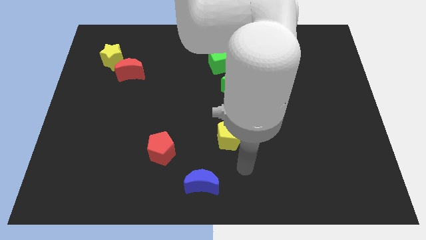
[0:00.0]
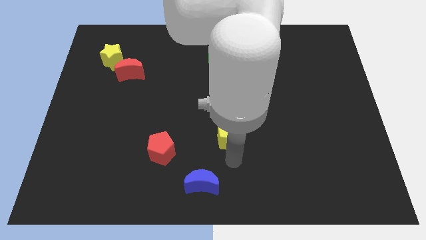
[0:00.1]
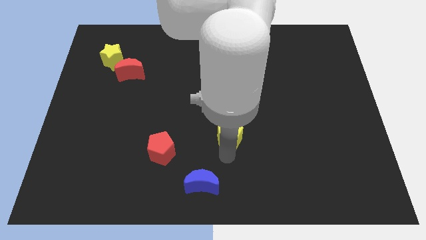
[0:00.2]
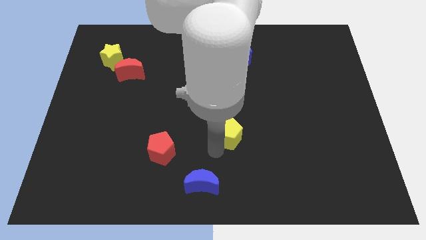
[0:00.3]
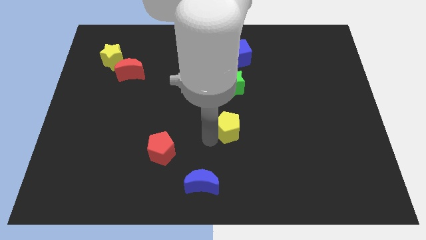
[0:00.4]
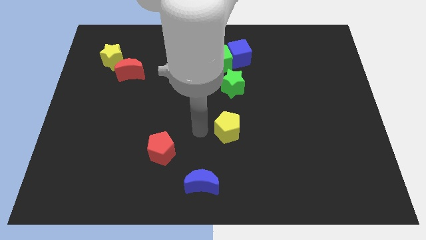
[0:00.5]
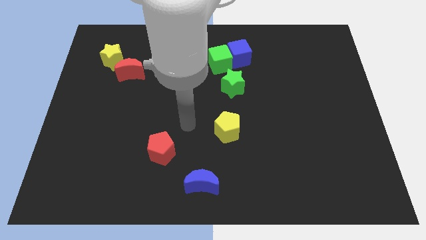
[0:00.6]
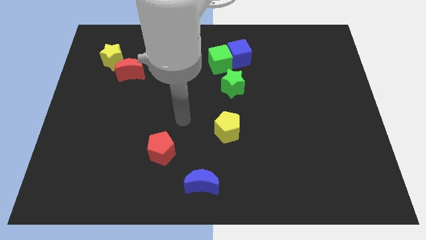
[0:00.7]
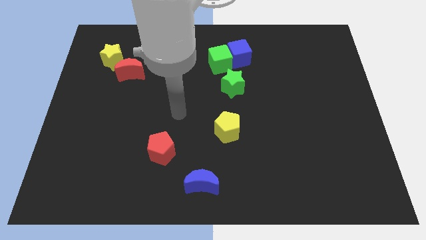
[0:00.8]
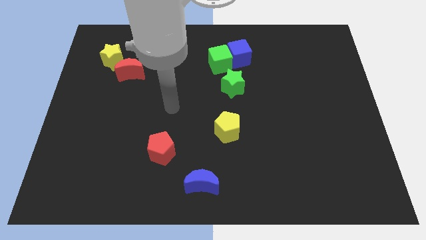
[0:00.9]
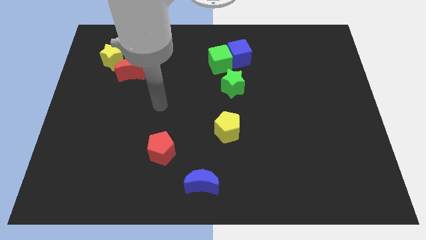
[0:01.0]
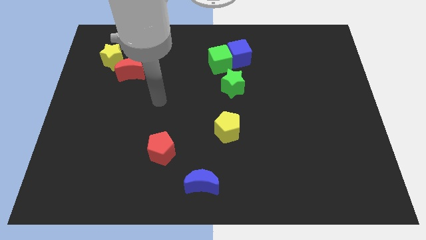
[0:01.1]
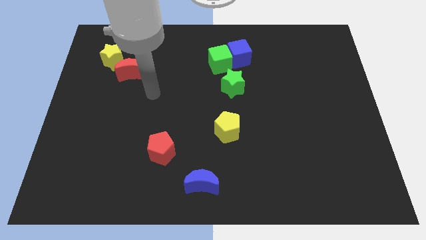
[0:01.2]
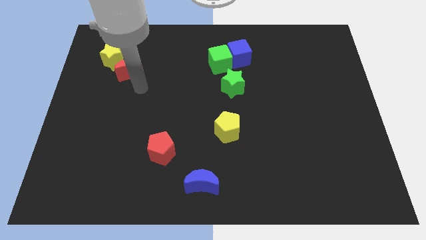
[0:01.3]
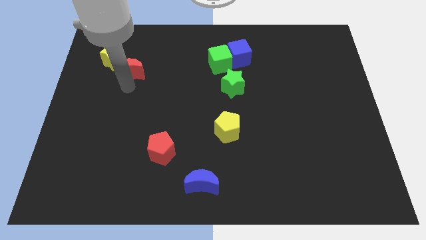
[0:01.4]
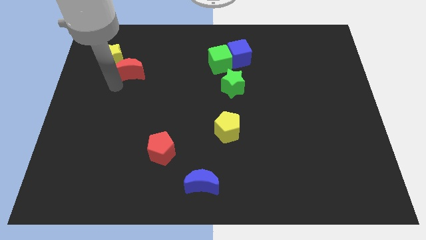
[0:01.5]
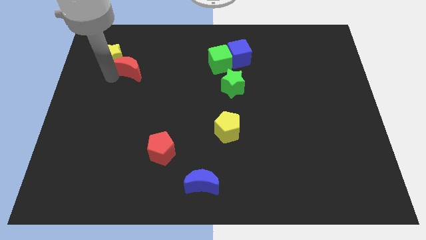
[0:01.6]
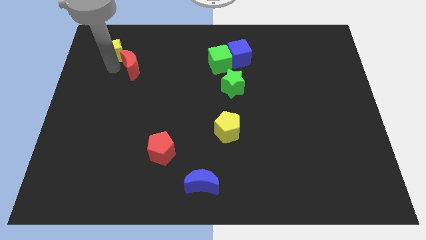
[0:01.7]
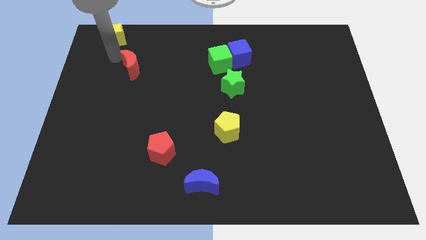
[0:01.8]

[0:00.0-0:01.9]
move the red moon away from the yellow star

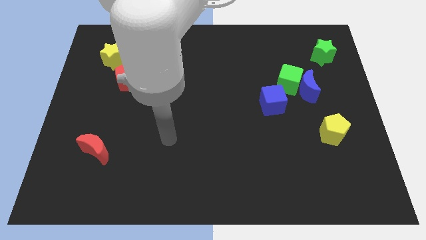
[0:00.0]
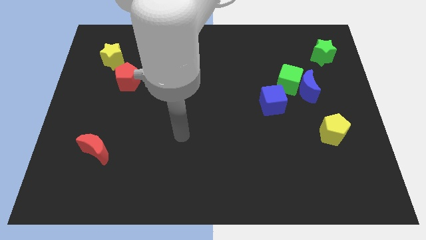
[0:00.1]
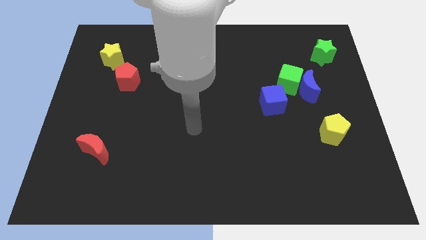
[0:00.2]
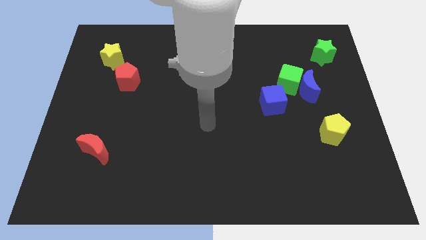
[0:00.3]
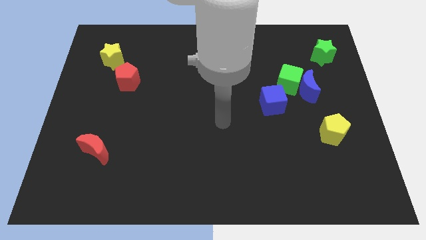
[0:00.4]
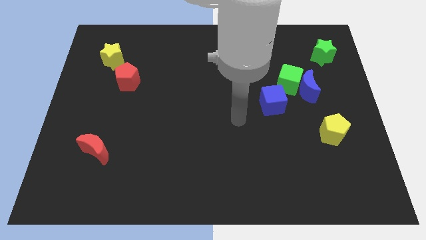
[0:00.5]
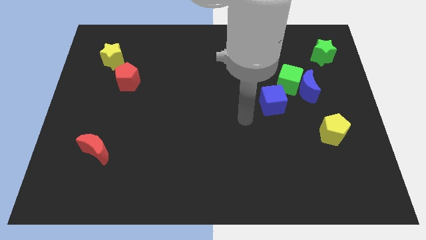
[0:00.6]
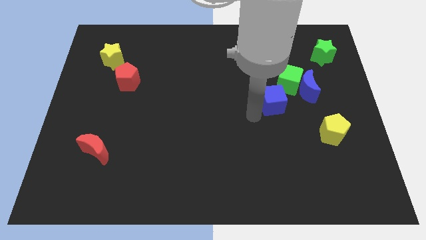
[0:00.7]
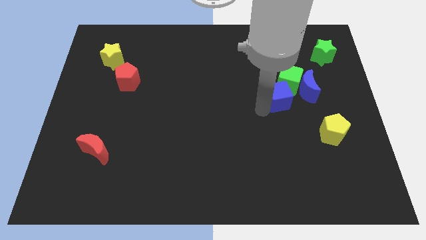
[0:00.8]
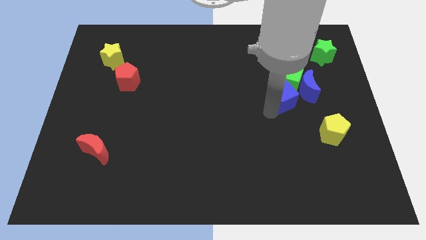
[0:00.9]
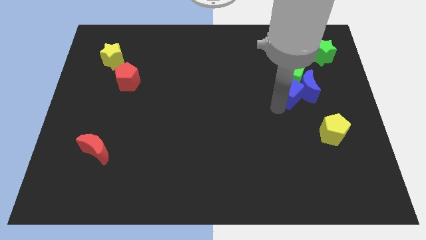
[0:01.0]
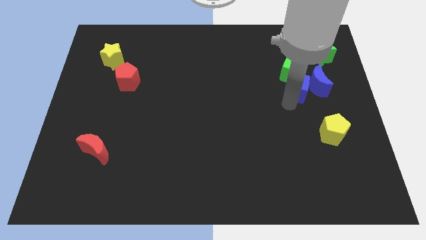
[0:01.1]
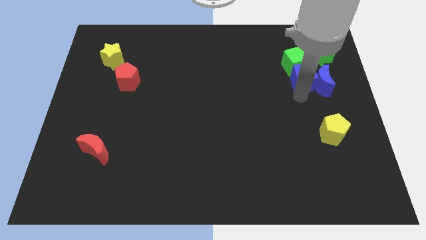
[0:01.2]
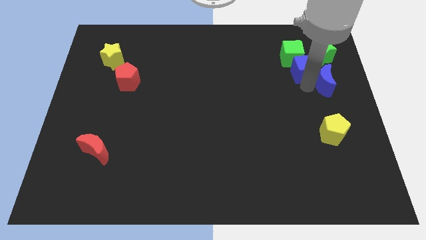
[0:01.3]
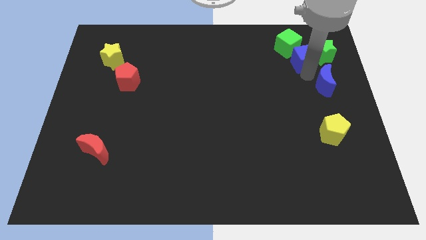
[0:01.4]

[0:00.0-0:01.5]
pull the green cube apart from the blue moon and blue cube

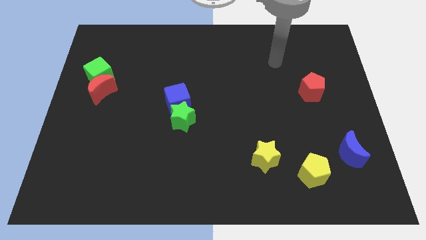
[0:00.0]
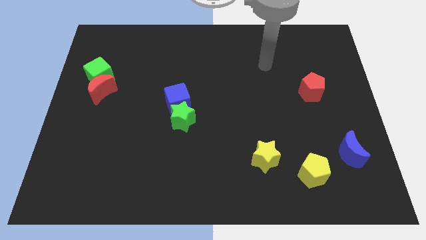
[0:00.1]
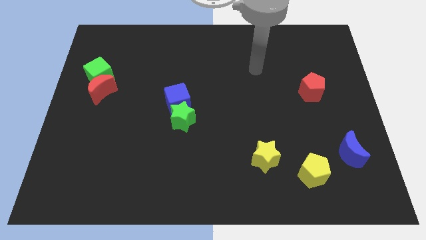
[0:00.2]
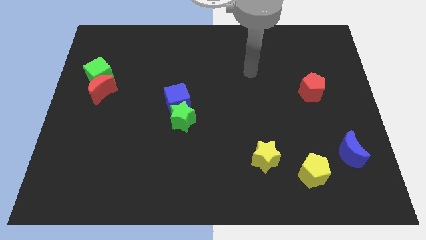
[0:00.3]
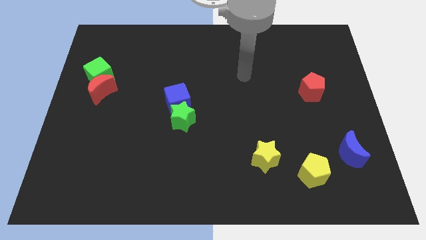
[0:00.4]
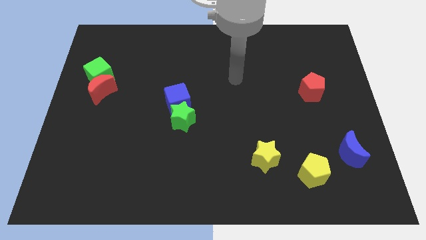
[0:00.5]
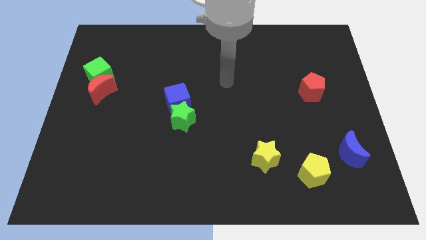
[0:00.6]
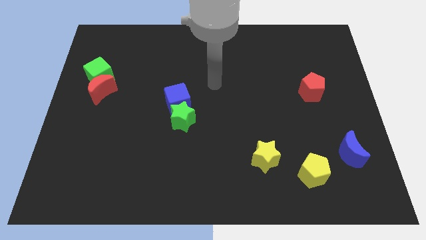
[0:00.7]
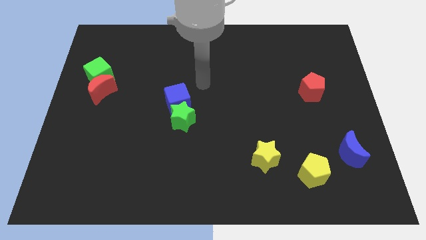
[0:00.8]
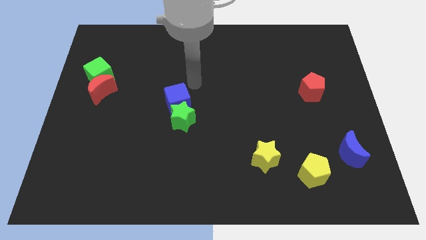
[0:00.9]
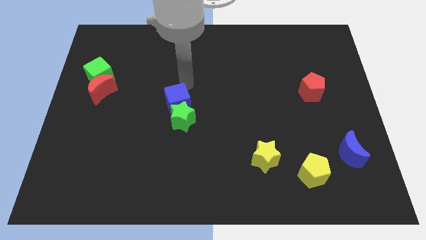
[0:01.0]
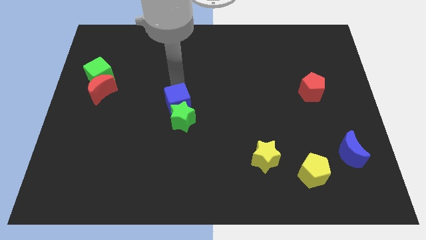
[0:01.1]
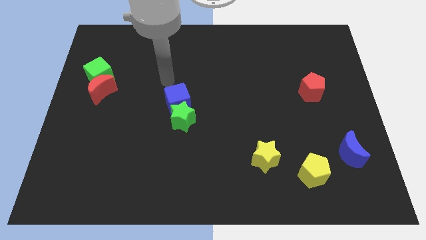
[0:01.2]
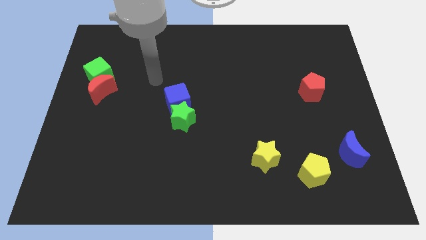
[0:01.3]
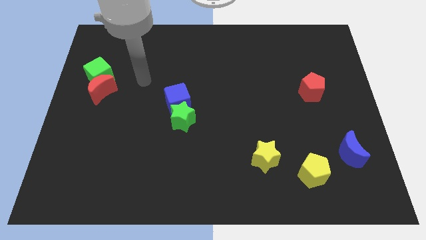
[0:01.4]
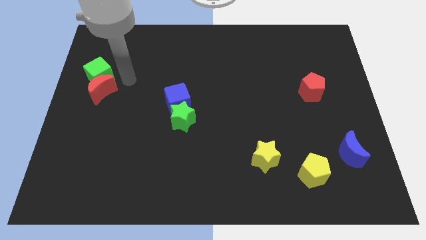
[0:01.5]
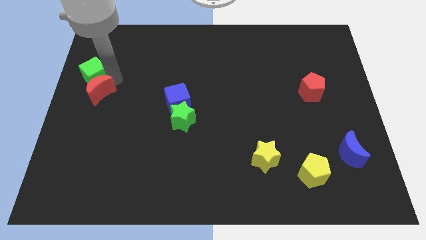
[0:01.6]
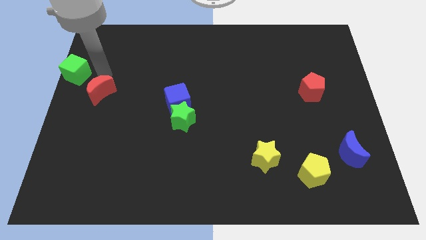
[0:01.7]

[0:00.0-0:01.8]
pull the red moon apart from the green cube

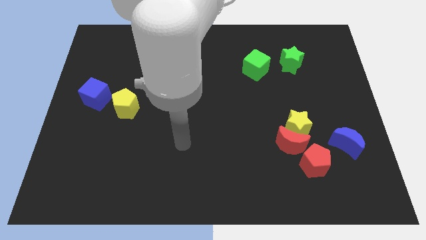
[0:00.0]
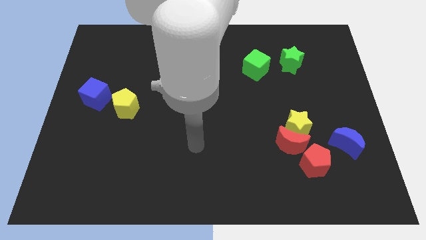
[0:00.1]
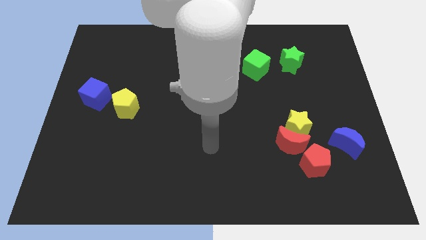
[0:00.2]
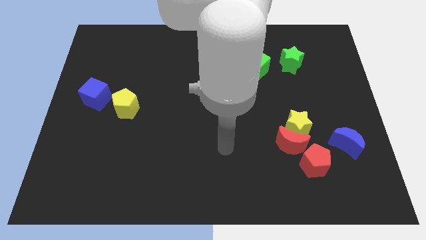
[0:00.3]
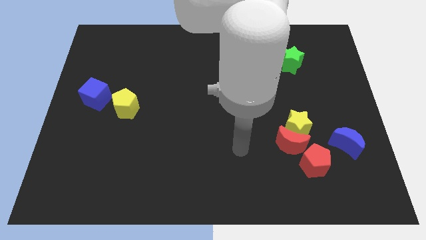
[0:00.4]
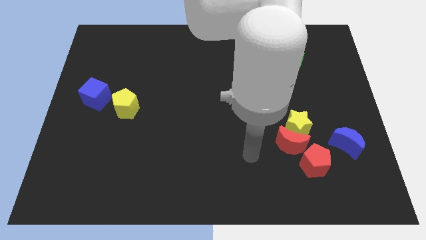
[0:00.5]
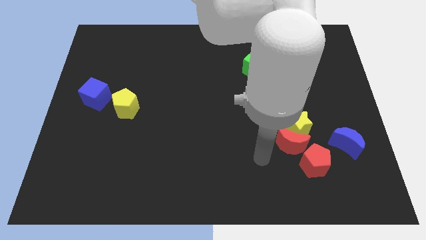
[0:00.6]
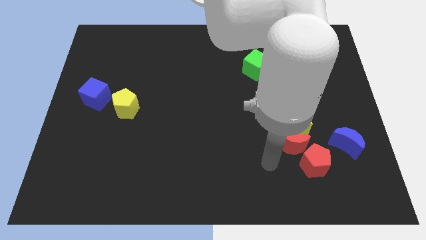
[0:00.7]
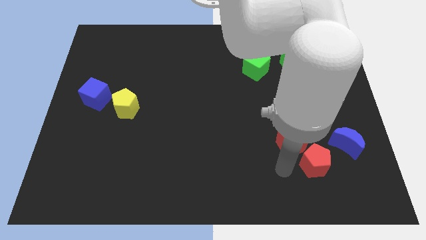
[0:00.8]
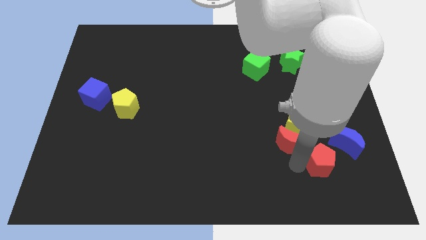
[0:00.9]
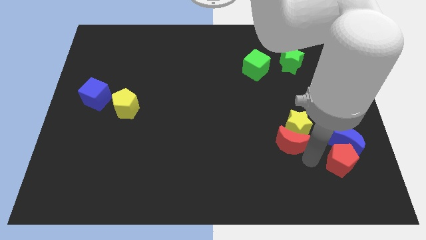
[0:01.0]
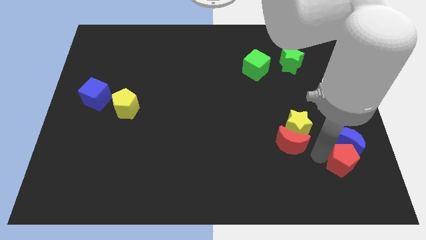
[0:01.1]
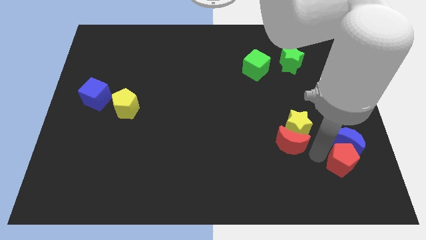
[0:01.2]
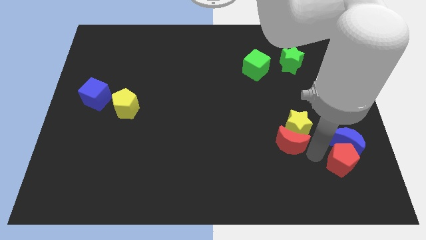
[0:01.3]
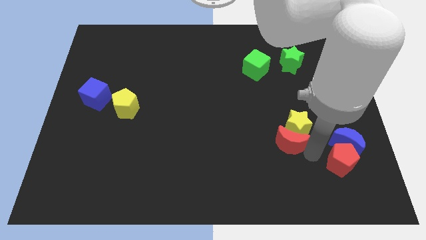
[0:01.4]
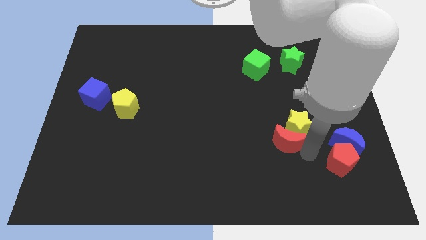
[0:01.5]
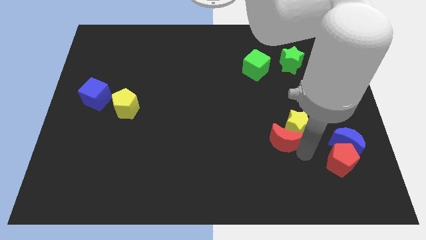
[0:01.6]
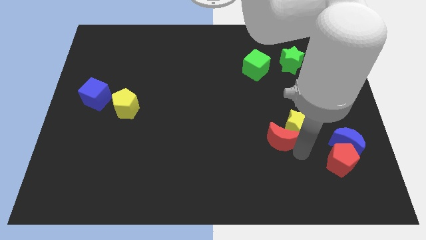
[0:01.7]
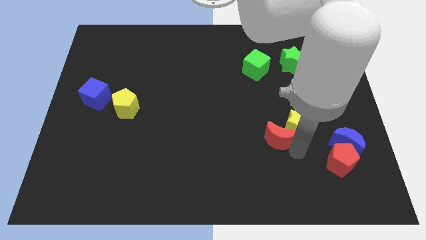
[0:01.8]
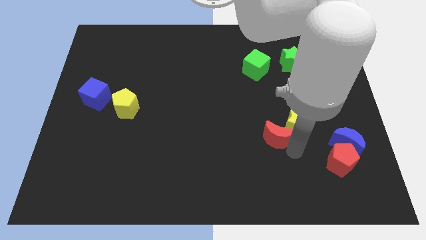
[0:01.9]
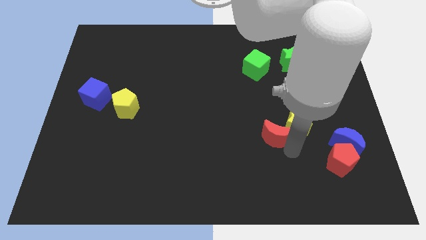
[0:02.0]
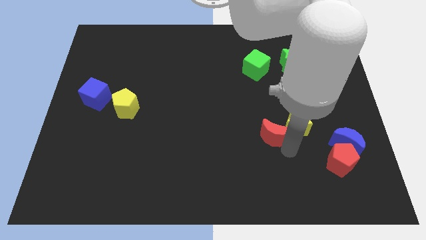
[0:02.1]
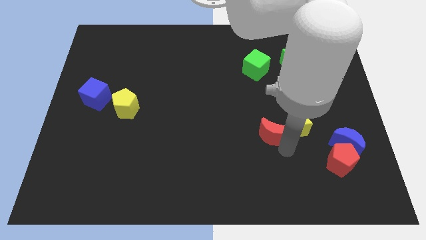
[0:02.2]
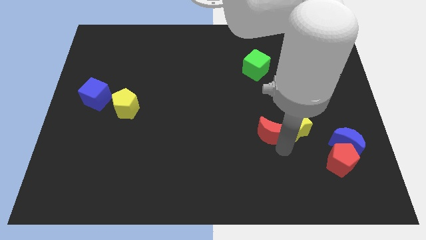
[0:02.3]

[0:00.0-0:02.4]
separate the red moon from the yellow star and red pentagon

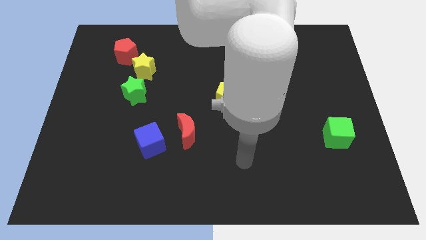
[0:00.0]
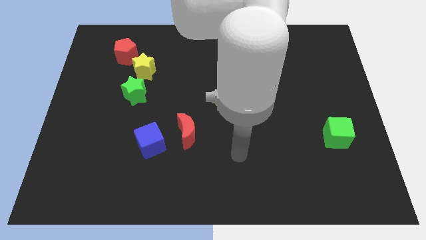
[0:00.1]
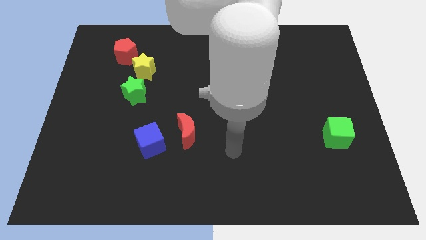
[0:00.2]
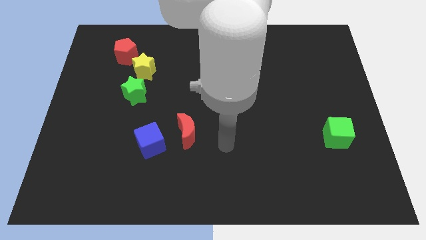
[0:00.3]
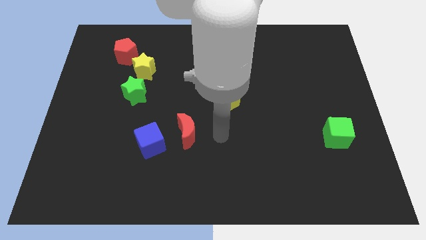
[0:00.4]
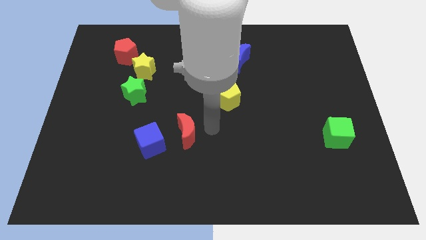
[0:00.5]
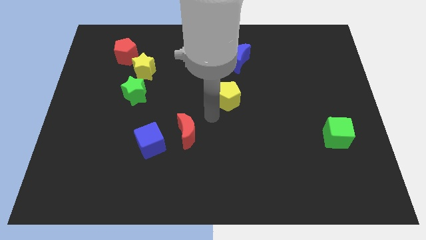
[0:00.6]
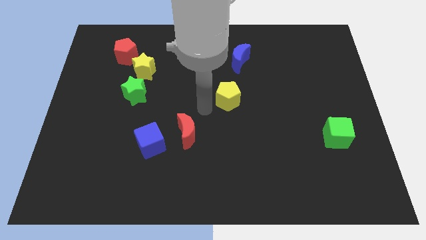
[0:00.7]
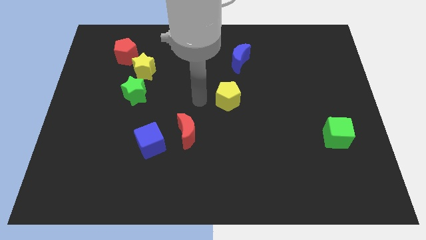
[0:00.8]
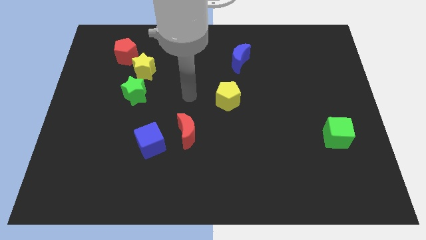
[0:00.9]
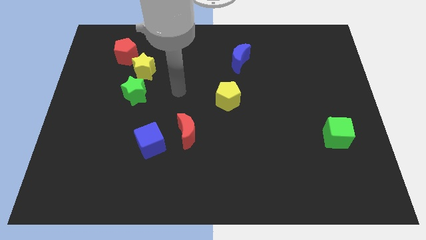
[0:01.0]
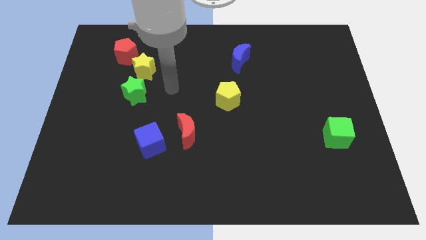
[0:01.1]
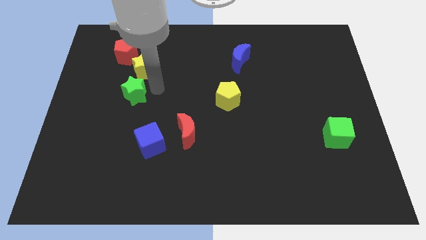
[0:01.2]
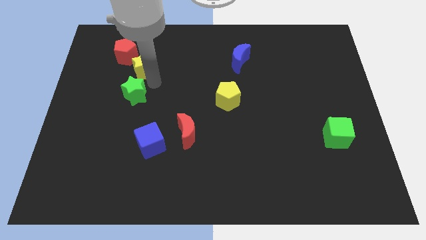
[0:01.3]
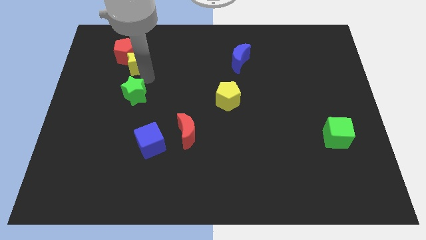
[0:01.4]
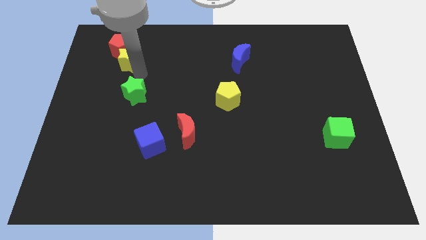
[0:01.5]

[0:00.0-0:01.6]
pull the green star apart from the yellow star
